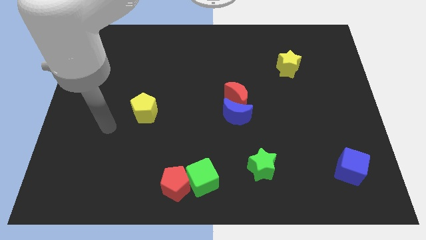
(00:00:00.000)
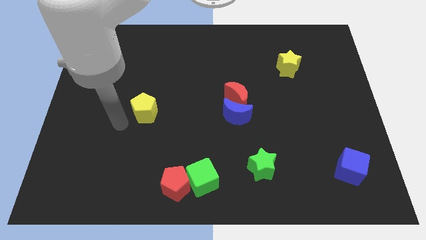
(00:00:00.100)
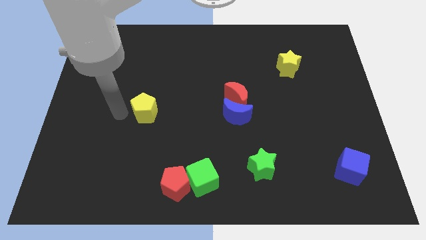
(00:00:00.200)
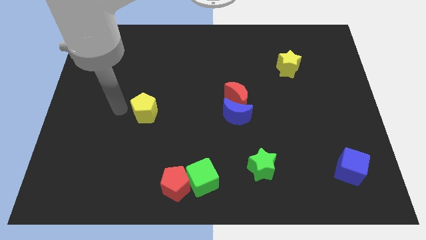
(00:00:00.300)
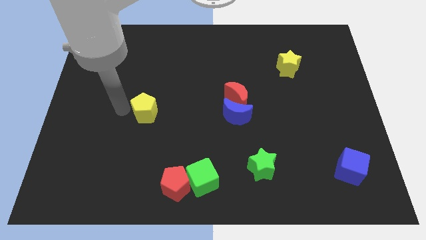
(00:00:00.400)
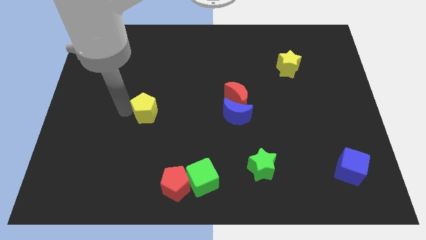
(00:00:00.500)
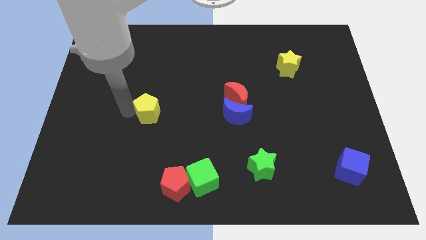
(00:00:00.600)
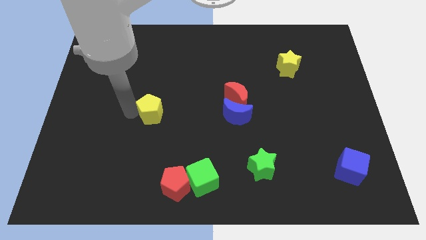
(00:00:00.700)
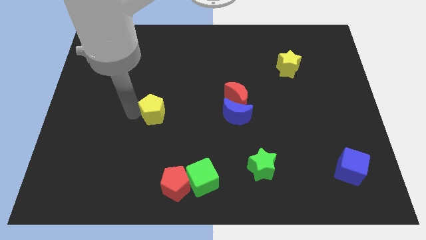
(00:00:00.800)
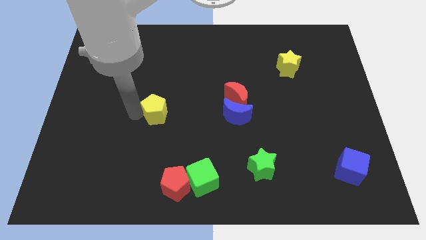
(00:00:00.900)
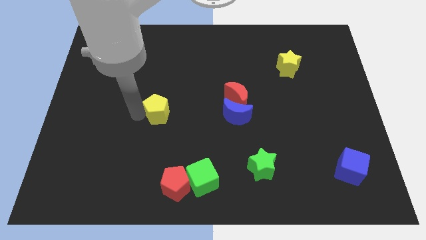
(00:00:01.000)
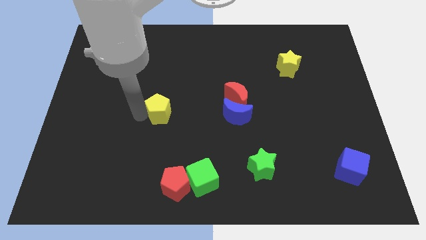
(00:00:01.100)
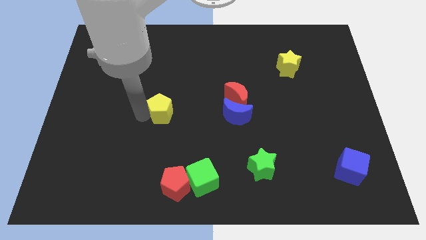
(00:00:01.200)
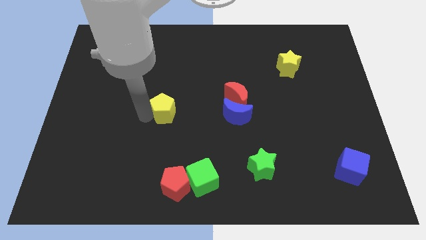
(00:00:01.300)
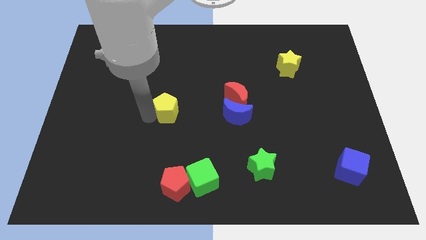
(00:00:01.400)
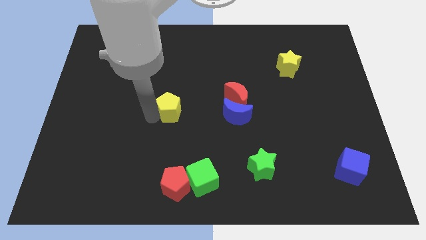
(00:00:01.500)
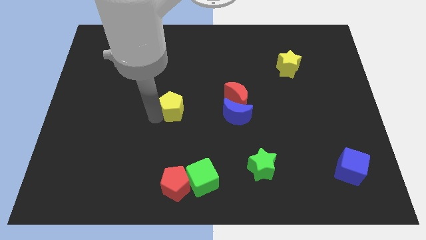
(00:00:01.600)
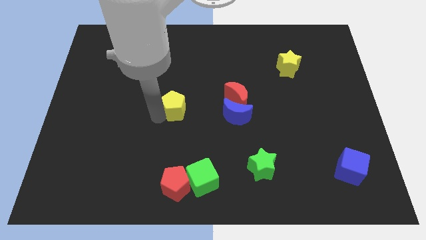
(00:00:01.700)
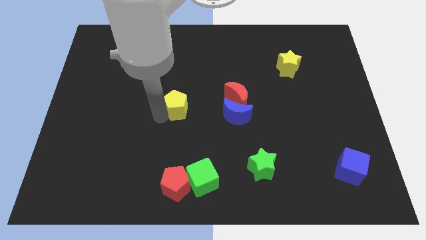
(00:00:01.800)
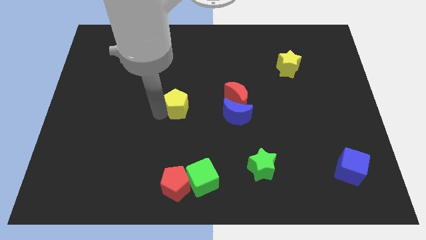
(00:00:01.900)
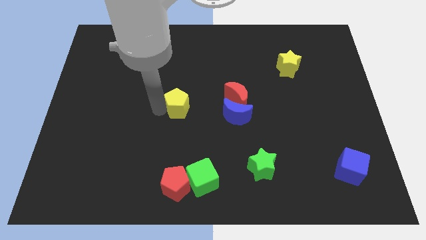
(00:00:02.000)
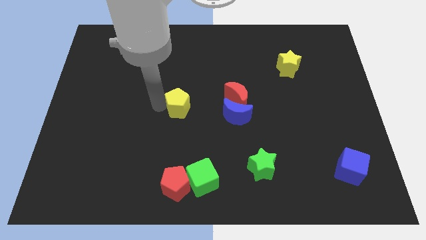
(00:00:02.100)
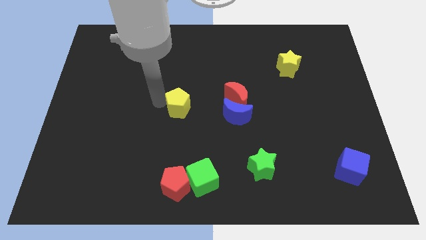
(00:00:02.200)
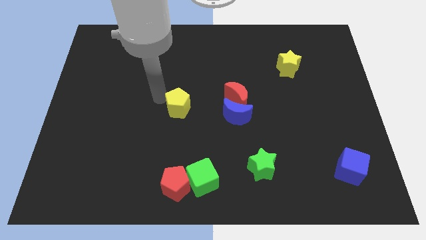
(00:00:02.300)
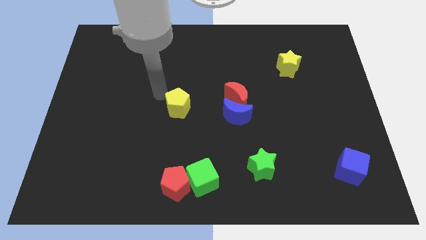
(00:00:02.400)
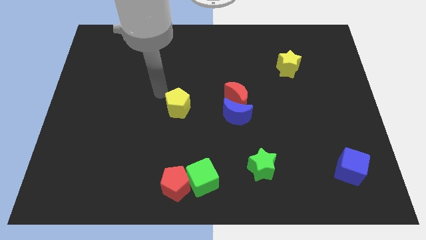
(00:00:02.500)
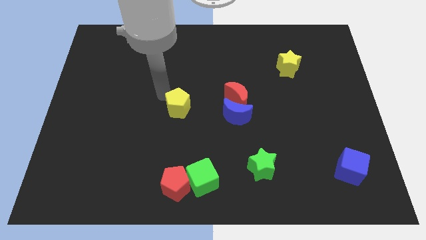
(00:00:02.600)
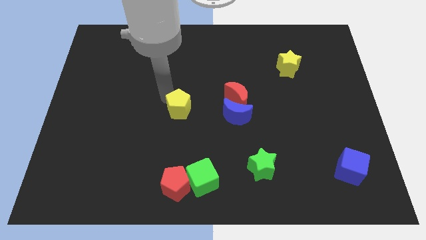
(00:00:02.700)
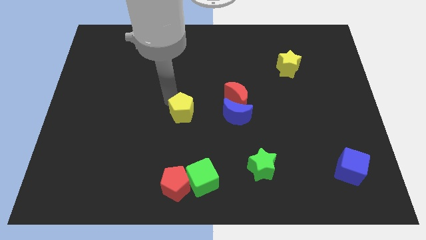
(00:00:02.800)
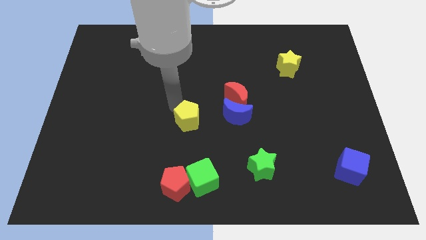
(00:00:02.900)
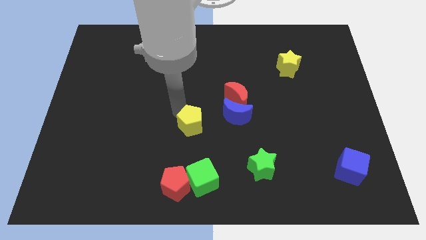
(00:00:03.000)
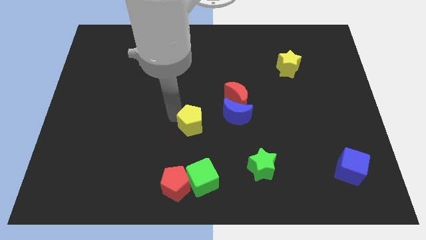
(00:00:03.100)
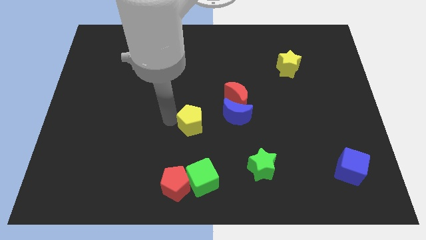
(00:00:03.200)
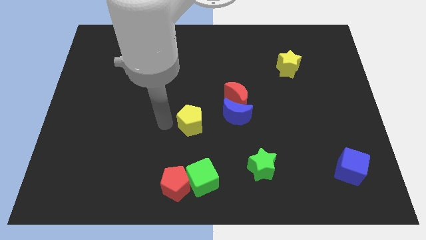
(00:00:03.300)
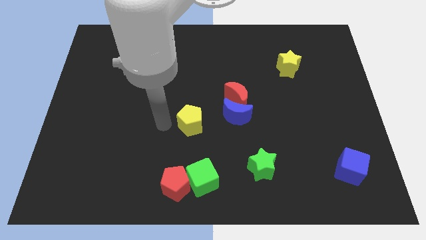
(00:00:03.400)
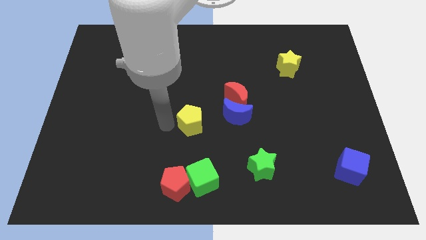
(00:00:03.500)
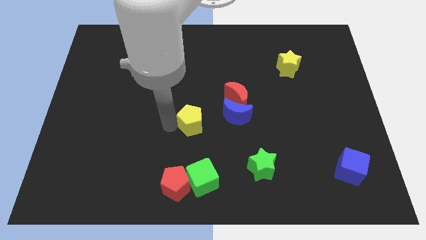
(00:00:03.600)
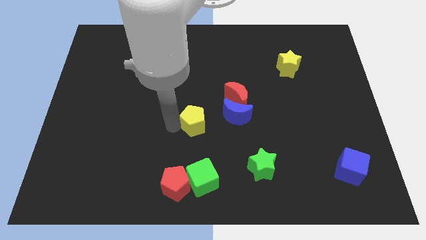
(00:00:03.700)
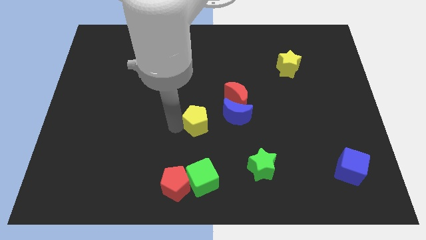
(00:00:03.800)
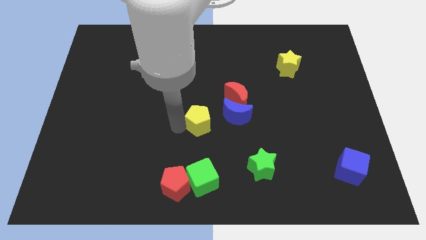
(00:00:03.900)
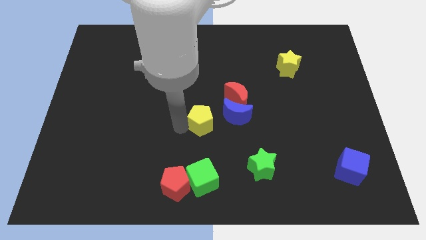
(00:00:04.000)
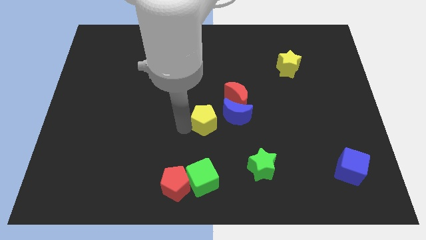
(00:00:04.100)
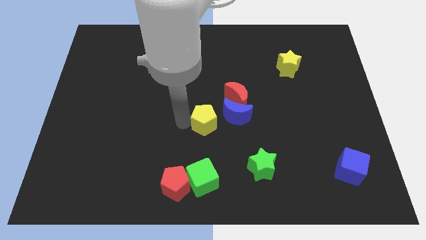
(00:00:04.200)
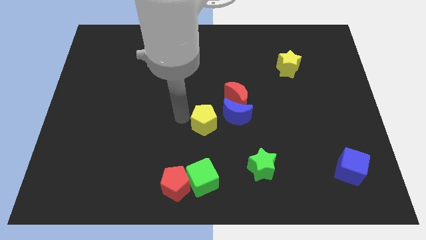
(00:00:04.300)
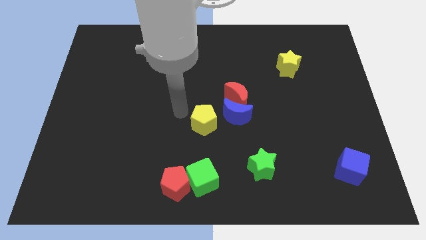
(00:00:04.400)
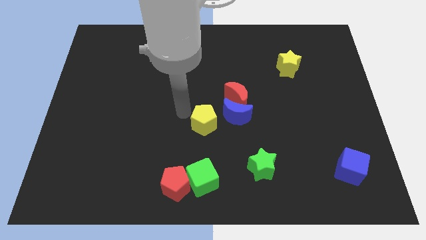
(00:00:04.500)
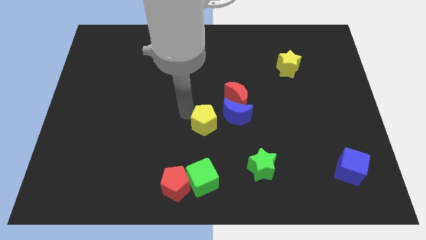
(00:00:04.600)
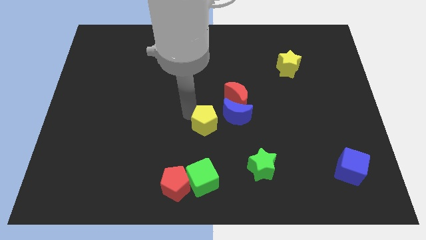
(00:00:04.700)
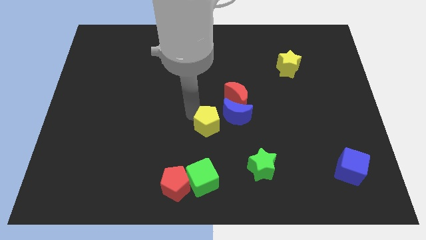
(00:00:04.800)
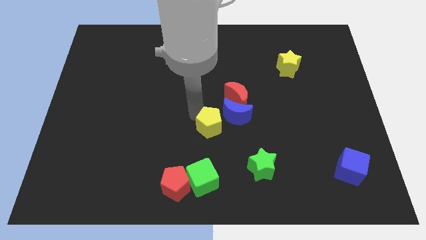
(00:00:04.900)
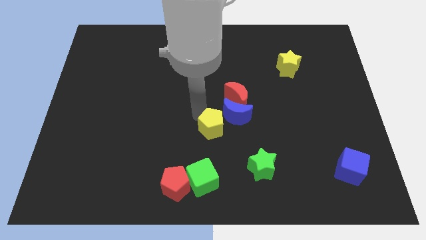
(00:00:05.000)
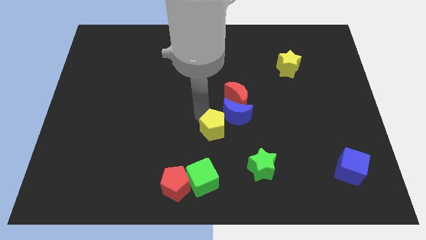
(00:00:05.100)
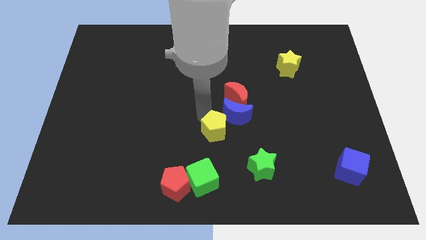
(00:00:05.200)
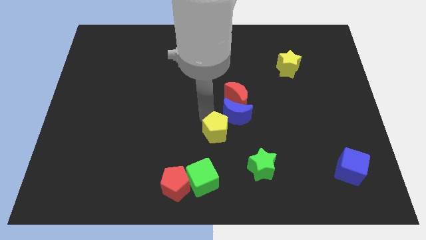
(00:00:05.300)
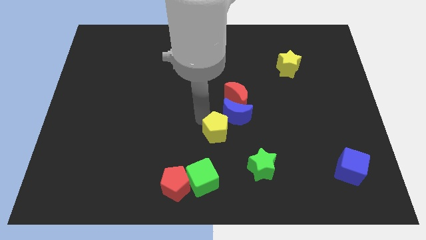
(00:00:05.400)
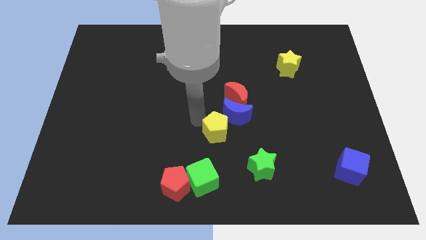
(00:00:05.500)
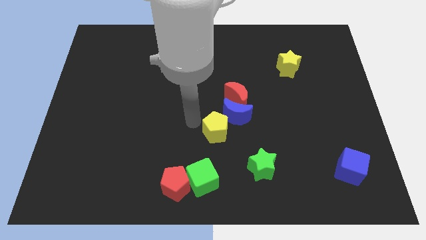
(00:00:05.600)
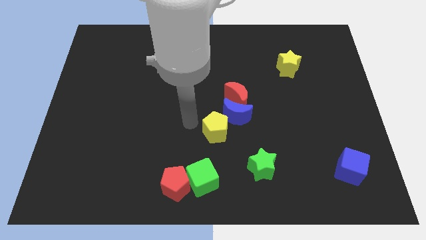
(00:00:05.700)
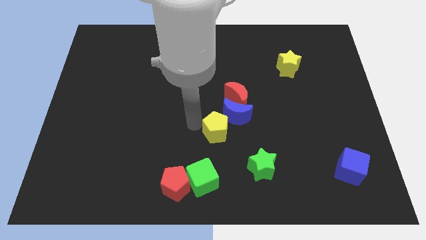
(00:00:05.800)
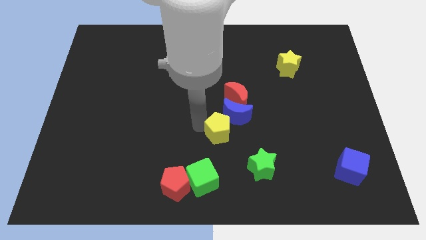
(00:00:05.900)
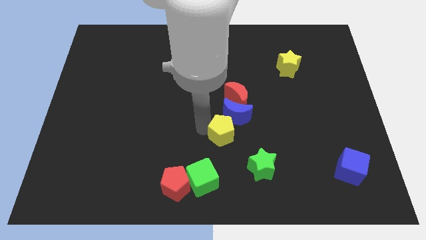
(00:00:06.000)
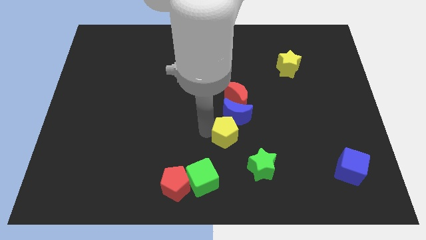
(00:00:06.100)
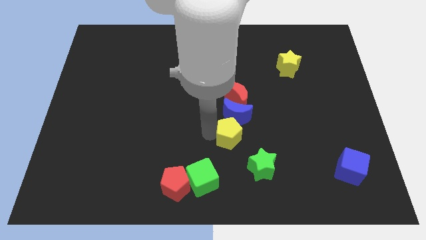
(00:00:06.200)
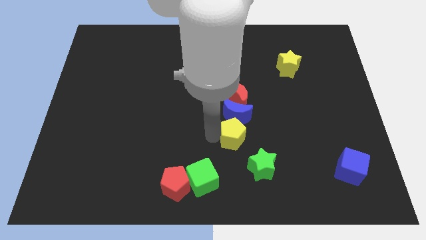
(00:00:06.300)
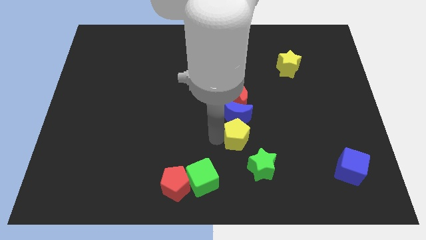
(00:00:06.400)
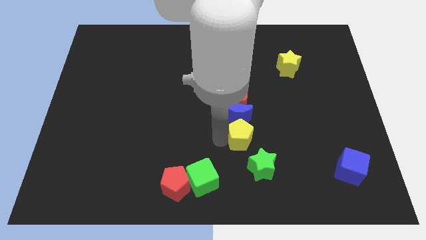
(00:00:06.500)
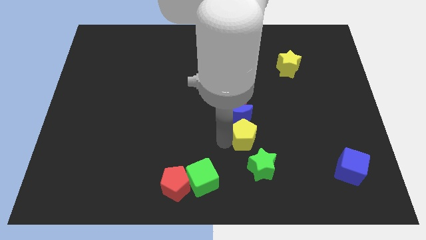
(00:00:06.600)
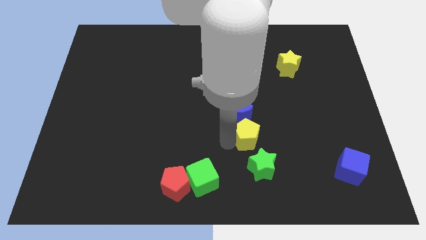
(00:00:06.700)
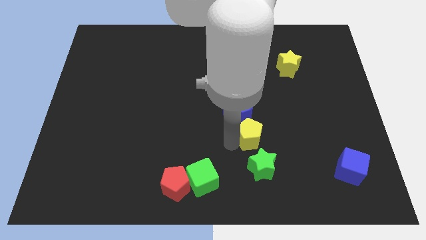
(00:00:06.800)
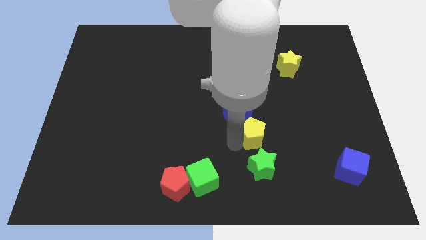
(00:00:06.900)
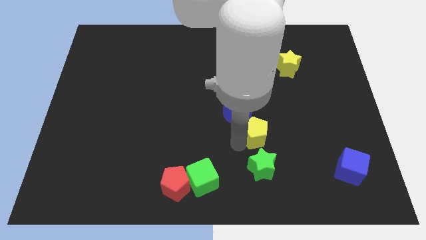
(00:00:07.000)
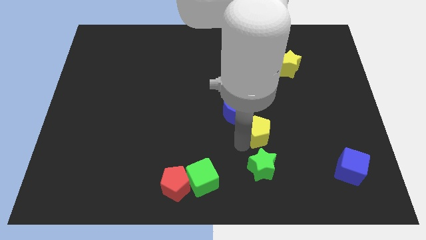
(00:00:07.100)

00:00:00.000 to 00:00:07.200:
slide the yellow pentagon diagonally down and to the right of the red moon

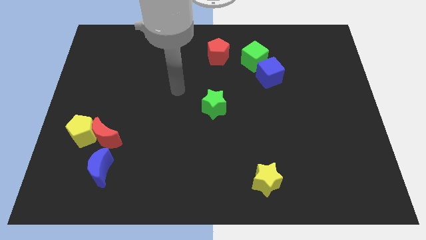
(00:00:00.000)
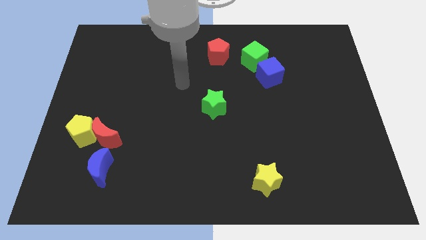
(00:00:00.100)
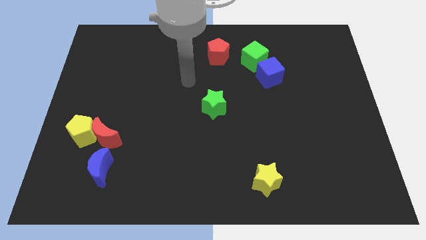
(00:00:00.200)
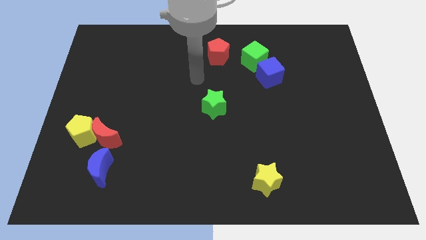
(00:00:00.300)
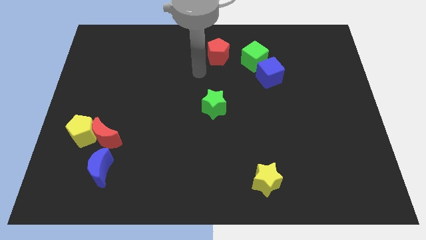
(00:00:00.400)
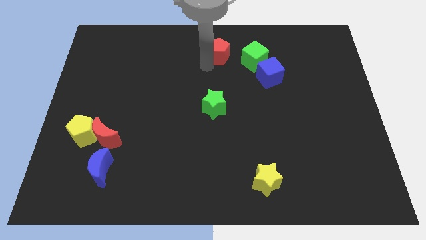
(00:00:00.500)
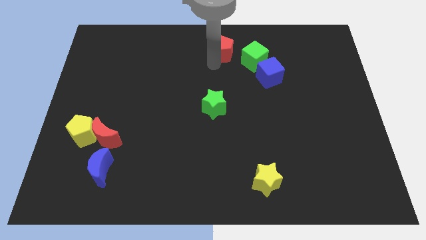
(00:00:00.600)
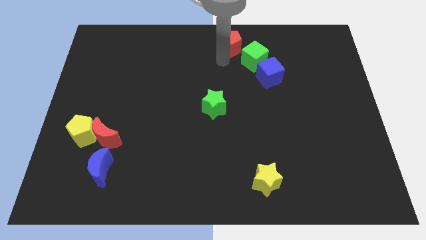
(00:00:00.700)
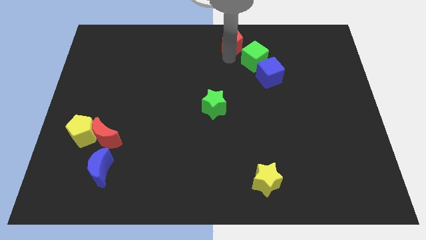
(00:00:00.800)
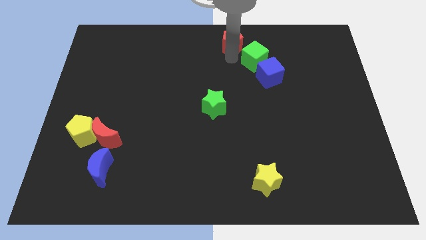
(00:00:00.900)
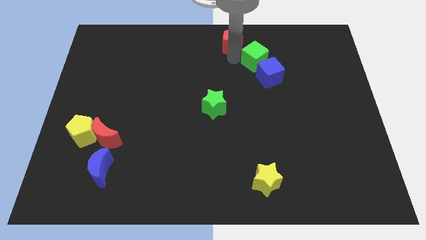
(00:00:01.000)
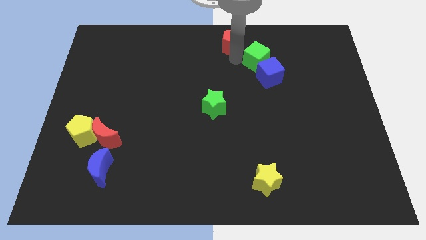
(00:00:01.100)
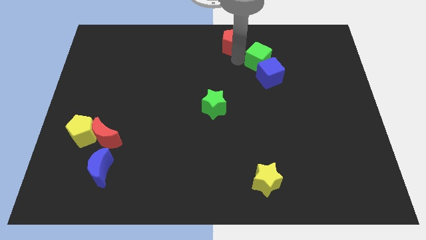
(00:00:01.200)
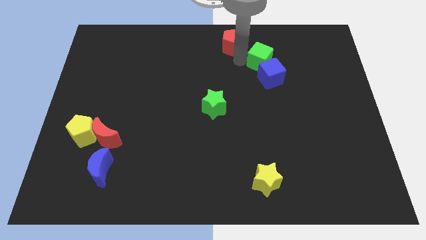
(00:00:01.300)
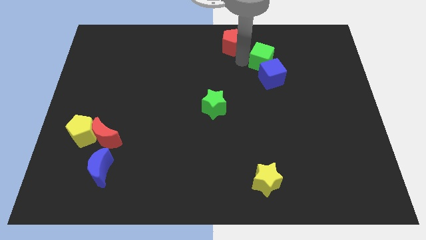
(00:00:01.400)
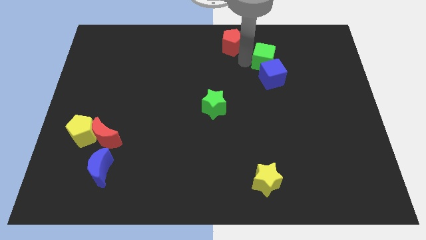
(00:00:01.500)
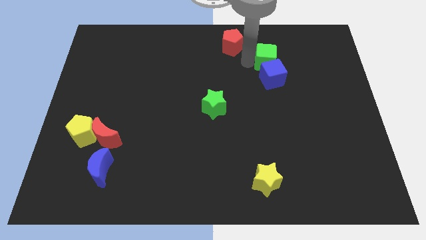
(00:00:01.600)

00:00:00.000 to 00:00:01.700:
move the green cube to the top right of the blue cube
